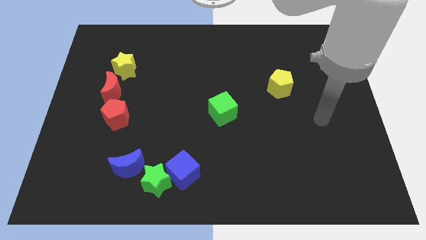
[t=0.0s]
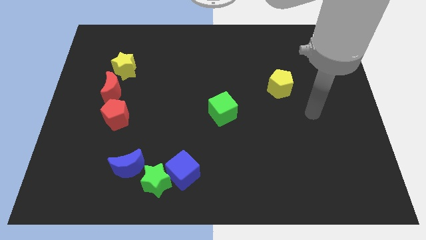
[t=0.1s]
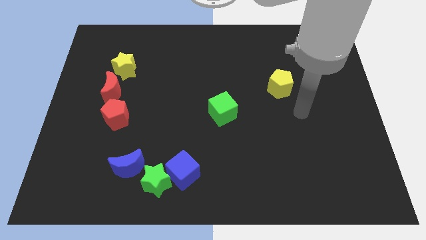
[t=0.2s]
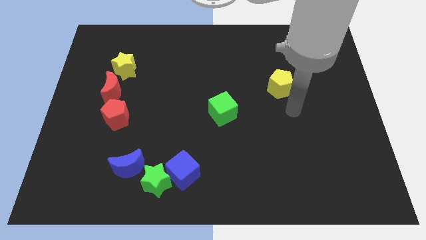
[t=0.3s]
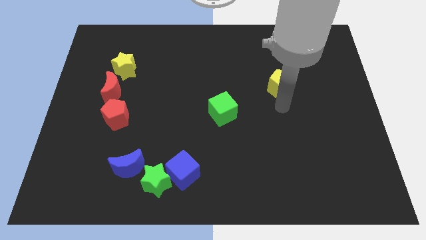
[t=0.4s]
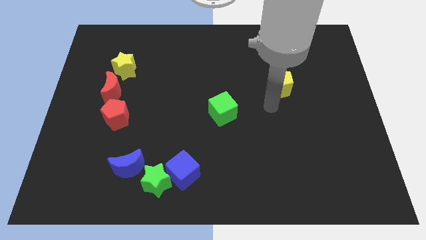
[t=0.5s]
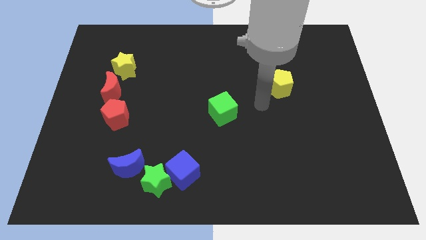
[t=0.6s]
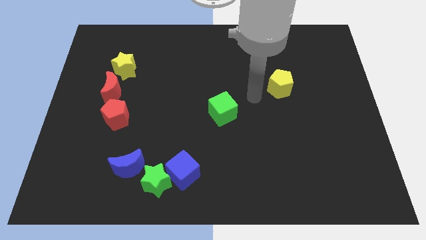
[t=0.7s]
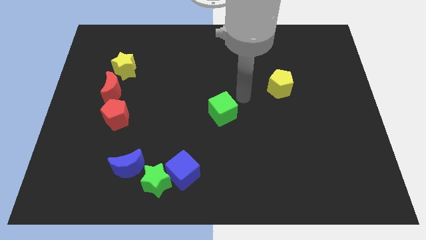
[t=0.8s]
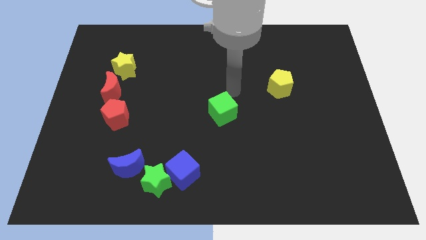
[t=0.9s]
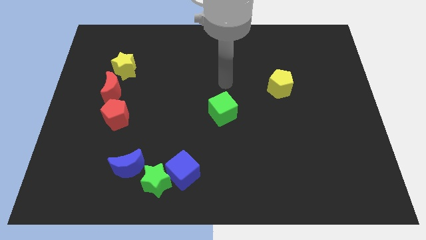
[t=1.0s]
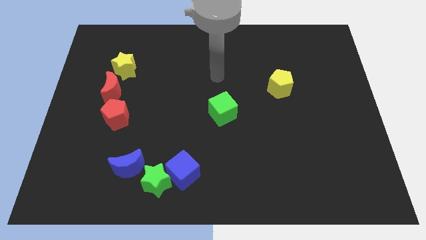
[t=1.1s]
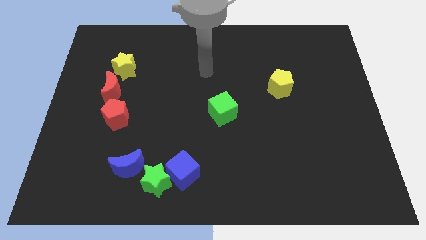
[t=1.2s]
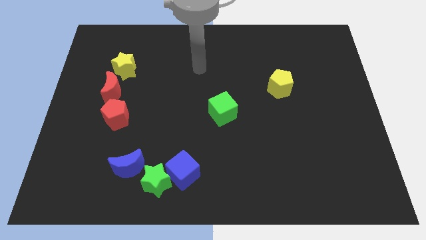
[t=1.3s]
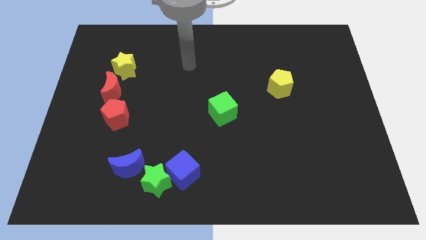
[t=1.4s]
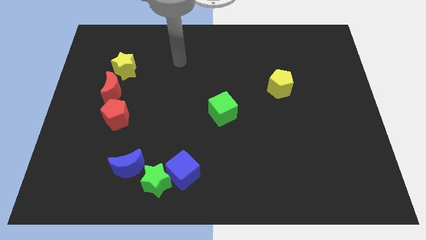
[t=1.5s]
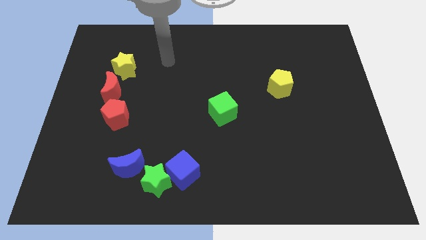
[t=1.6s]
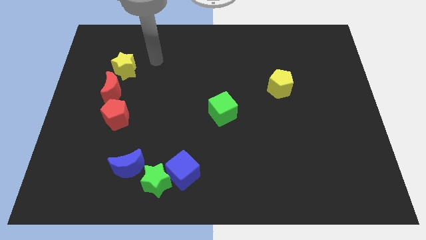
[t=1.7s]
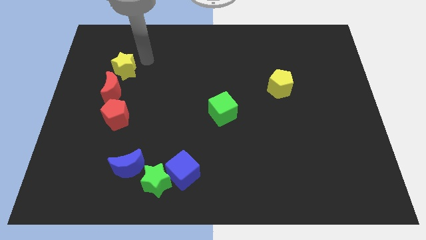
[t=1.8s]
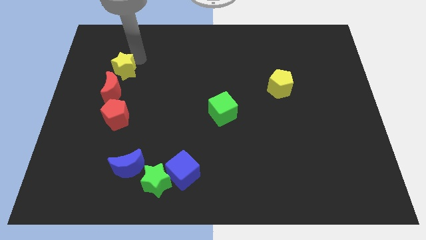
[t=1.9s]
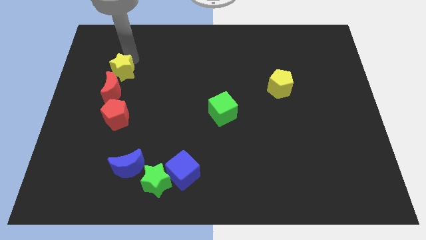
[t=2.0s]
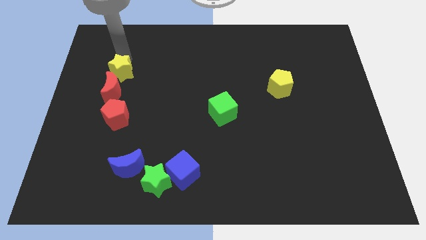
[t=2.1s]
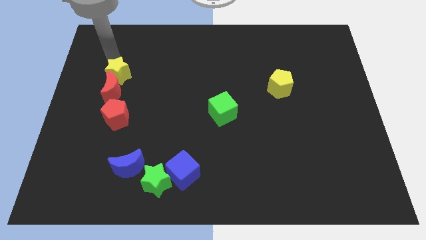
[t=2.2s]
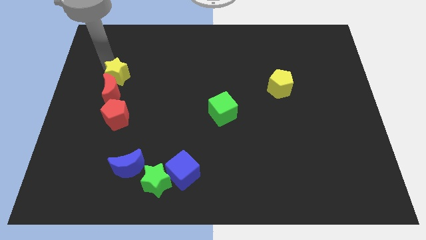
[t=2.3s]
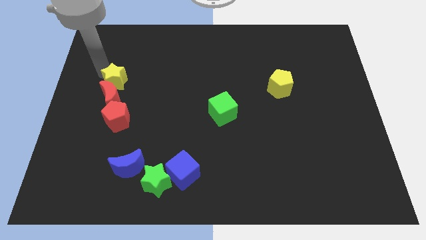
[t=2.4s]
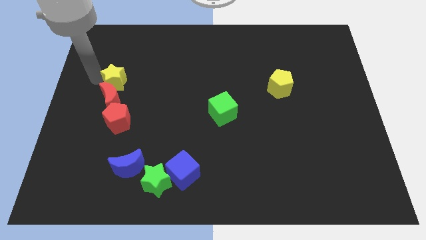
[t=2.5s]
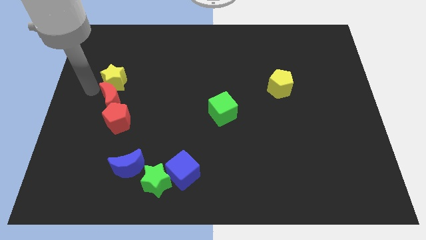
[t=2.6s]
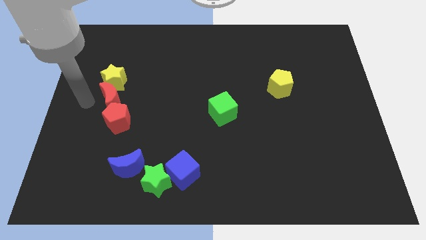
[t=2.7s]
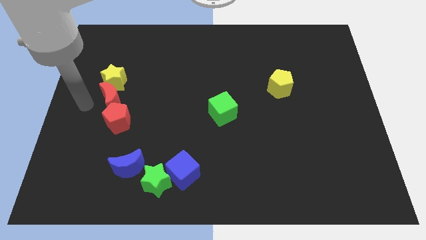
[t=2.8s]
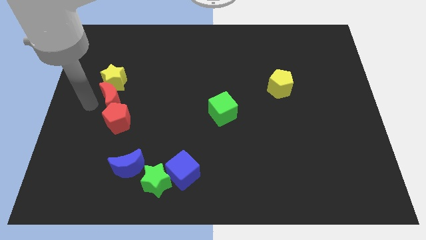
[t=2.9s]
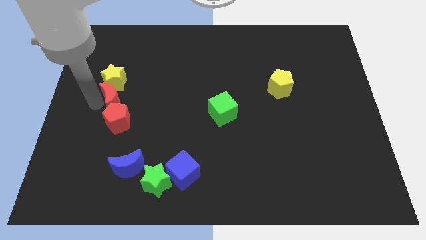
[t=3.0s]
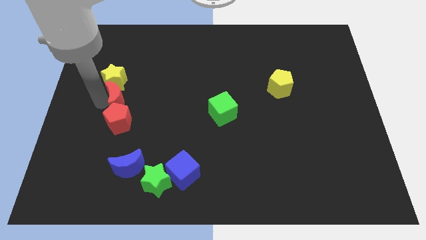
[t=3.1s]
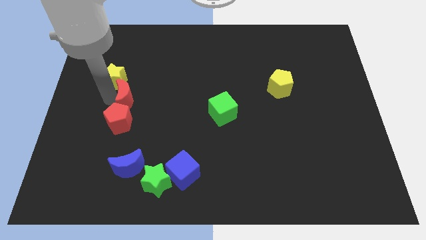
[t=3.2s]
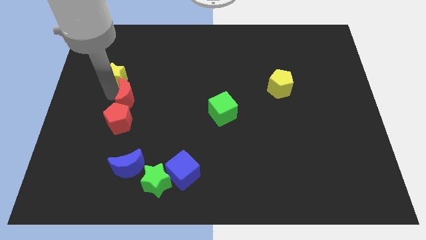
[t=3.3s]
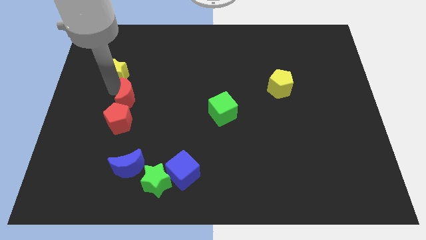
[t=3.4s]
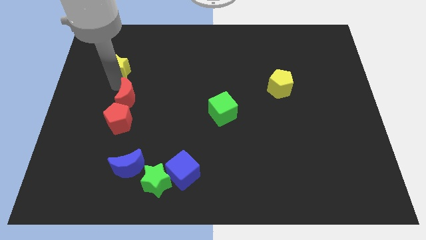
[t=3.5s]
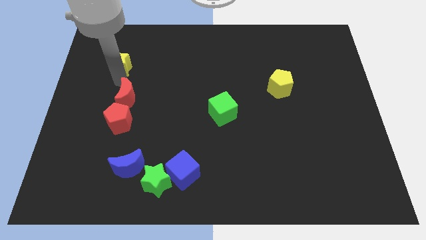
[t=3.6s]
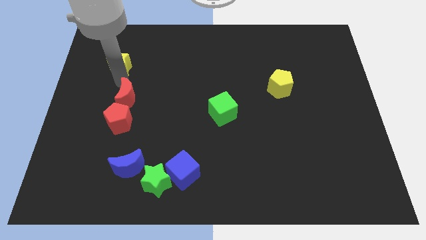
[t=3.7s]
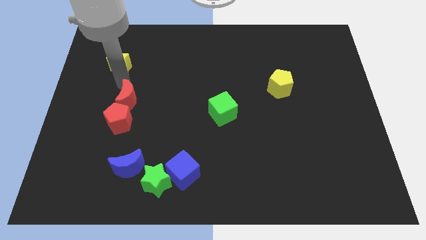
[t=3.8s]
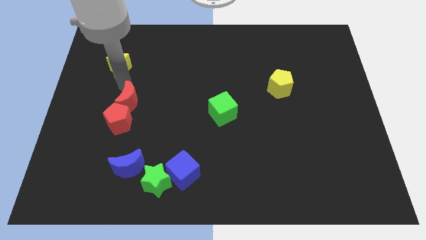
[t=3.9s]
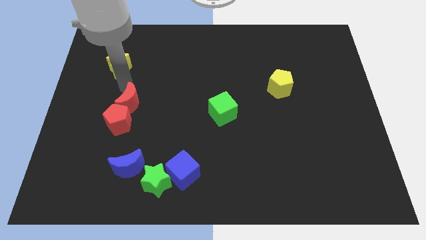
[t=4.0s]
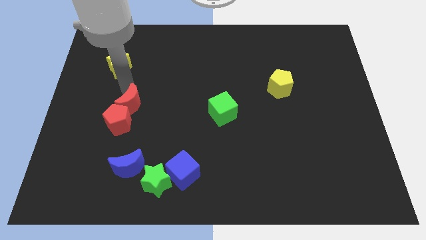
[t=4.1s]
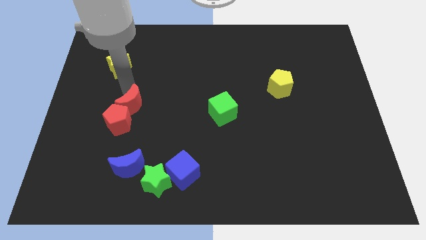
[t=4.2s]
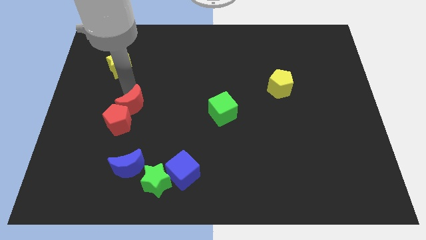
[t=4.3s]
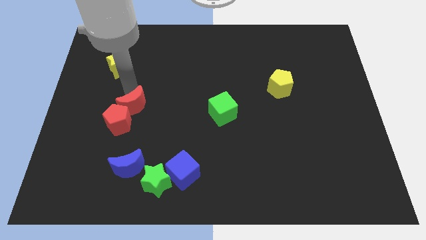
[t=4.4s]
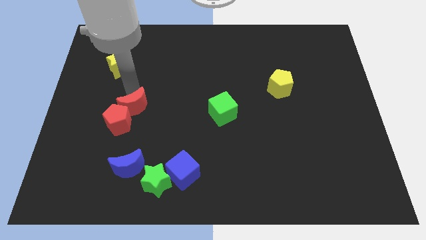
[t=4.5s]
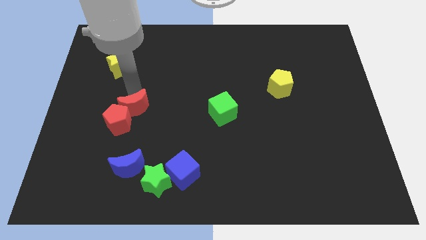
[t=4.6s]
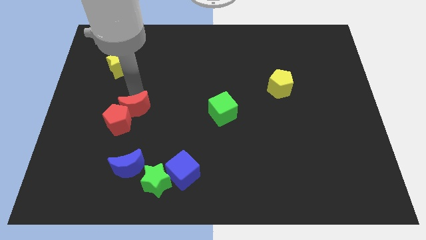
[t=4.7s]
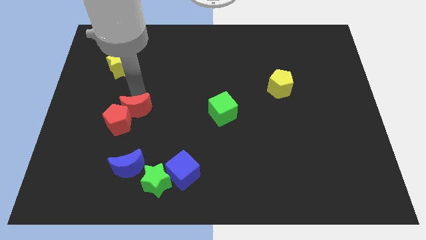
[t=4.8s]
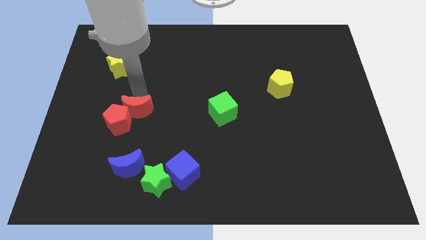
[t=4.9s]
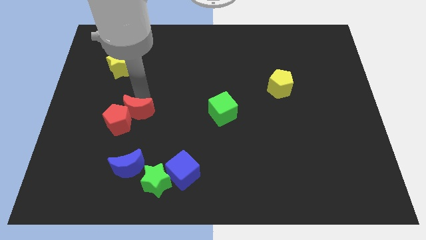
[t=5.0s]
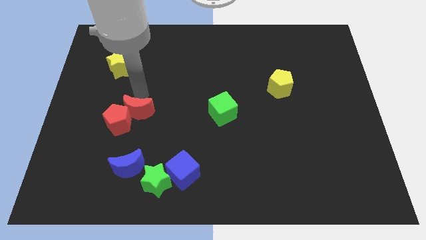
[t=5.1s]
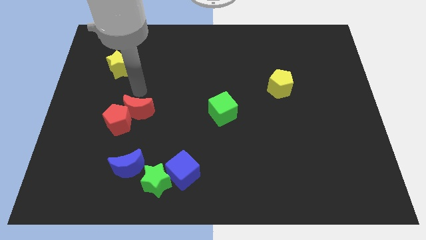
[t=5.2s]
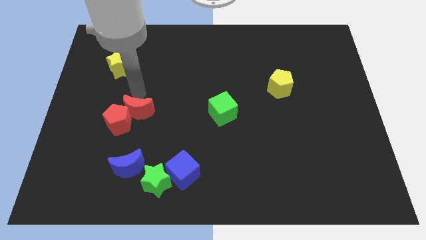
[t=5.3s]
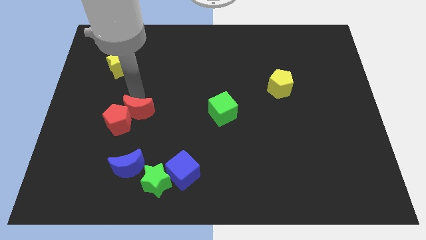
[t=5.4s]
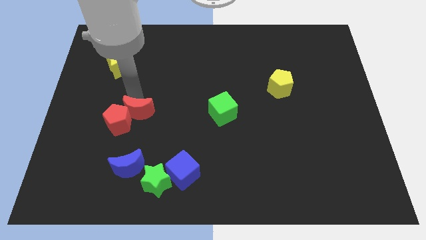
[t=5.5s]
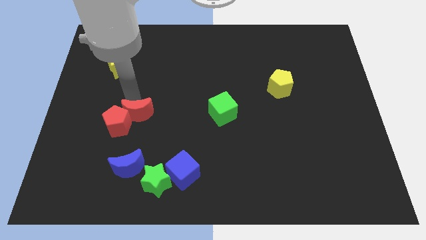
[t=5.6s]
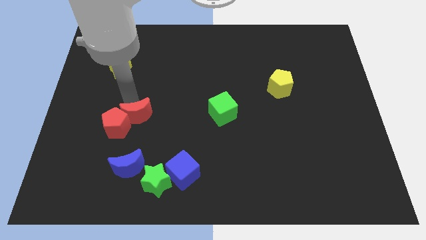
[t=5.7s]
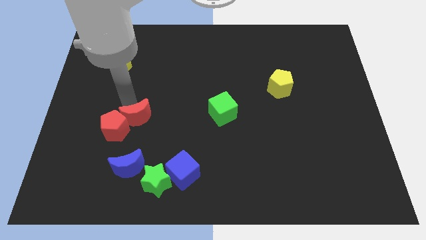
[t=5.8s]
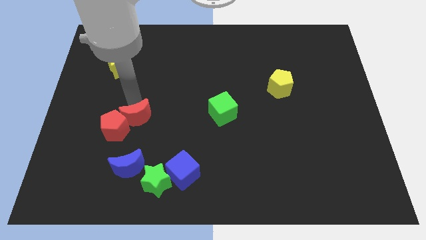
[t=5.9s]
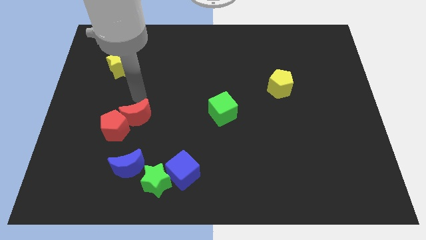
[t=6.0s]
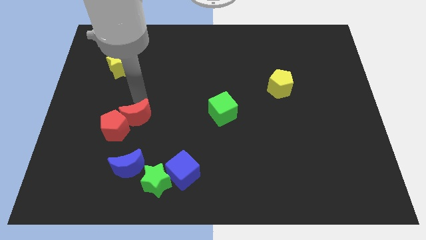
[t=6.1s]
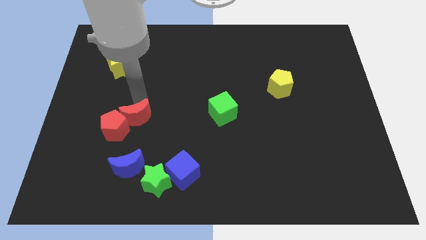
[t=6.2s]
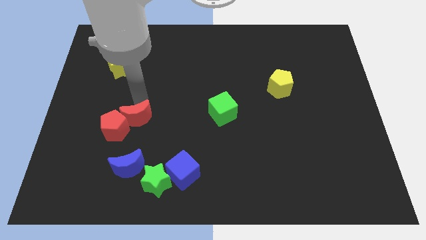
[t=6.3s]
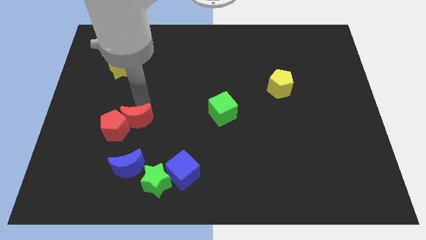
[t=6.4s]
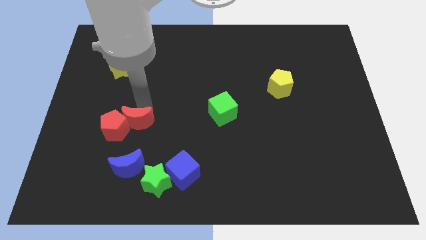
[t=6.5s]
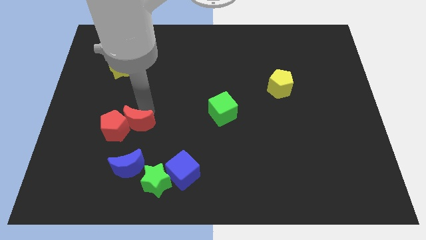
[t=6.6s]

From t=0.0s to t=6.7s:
push the red moon to the bottom right of the red pentagon
